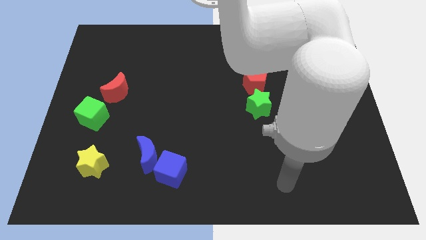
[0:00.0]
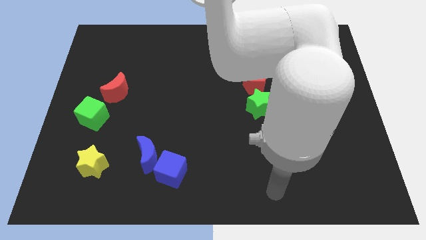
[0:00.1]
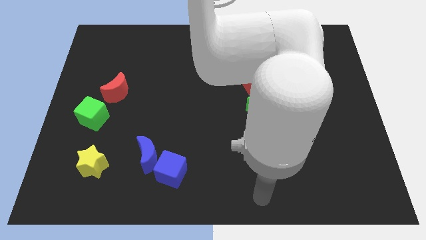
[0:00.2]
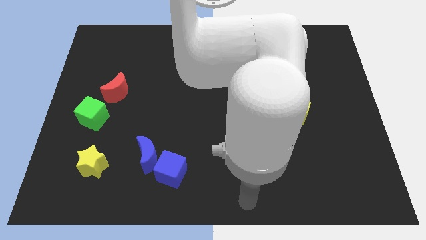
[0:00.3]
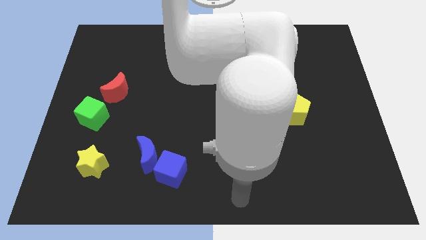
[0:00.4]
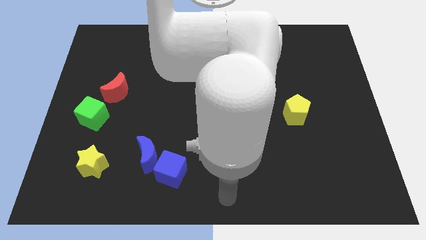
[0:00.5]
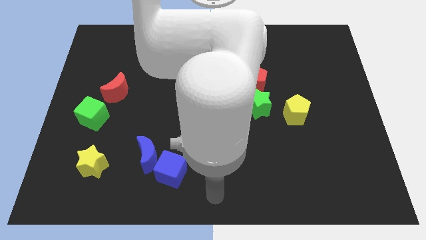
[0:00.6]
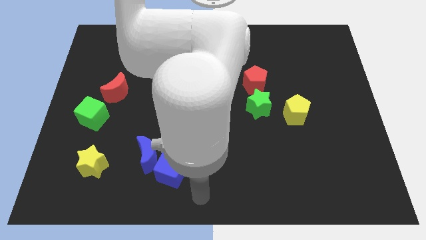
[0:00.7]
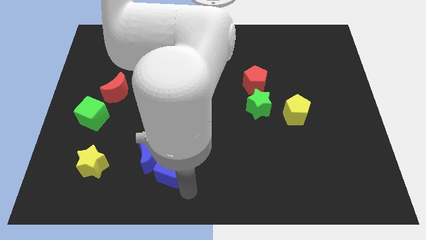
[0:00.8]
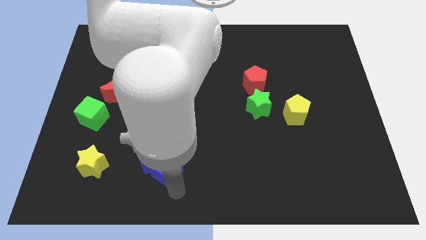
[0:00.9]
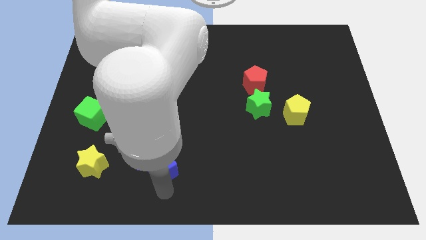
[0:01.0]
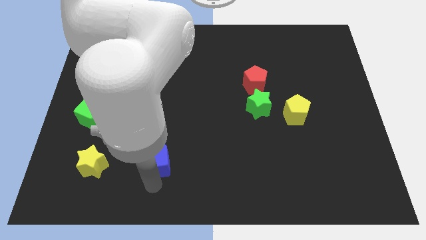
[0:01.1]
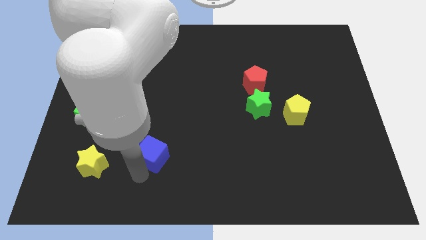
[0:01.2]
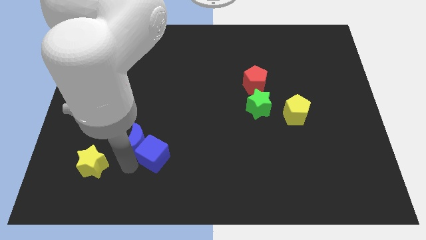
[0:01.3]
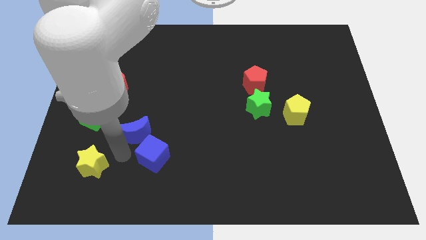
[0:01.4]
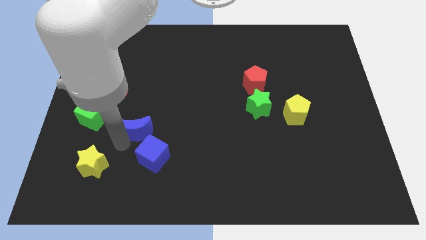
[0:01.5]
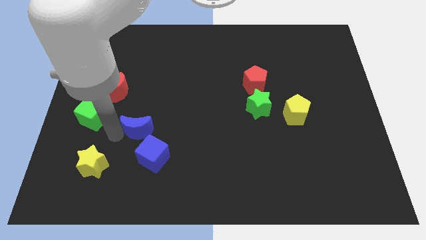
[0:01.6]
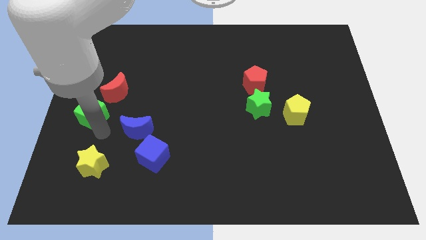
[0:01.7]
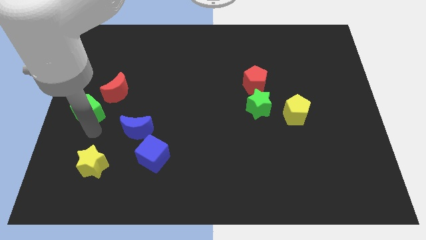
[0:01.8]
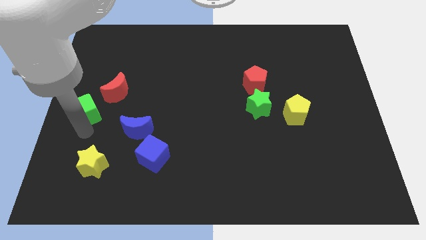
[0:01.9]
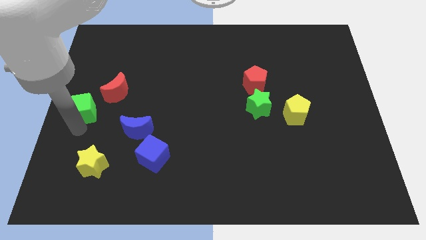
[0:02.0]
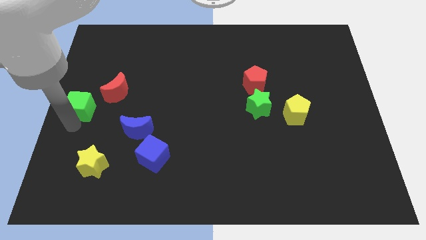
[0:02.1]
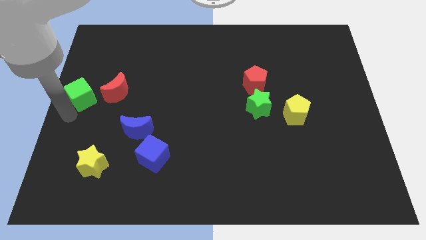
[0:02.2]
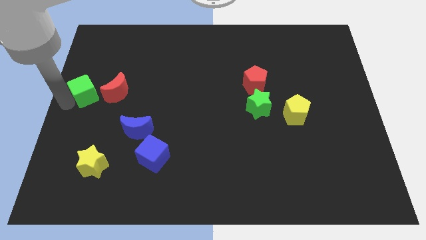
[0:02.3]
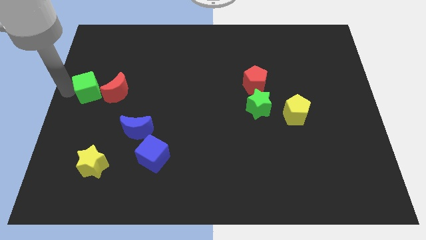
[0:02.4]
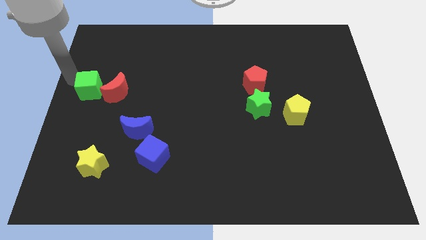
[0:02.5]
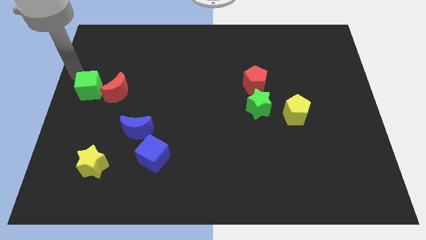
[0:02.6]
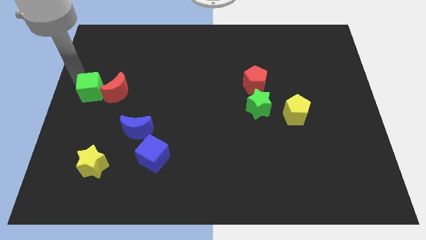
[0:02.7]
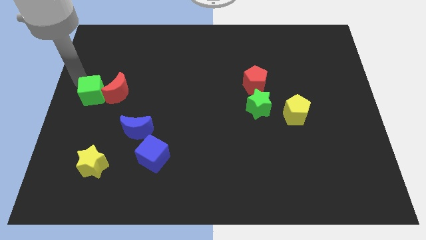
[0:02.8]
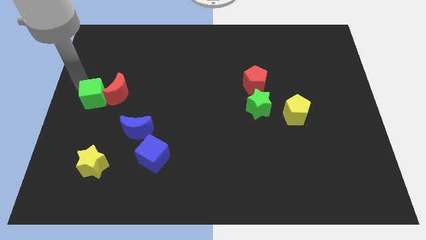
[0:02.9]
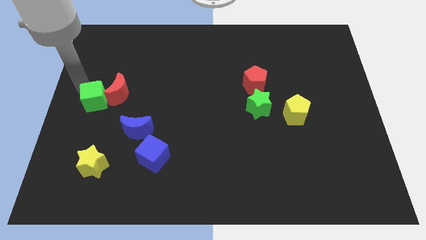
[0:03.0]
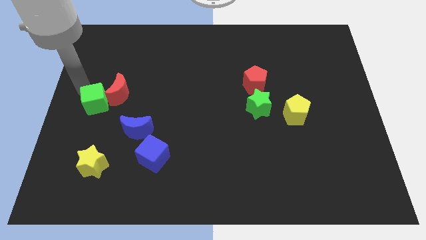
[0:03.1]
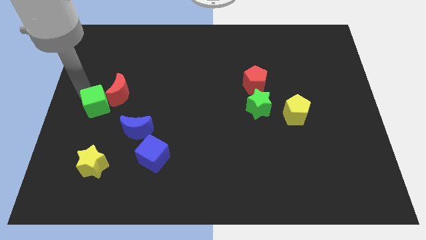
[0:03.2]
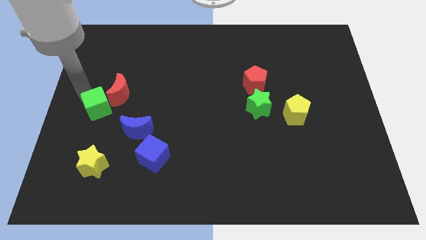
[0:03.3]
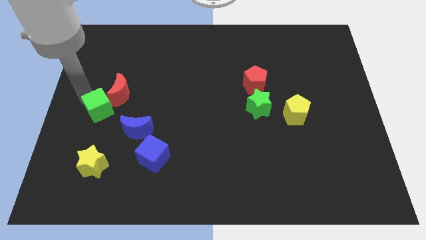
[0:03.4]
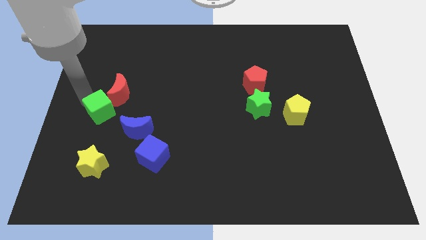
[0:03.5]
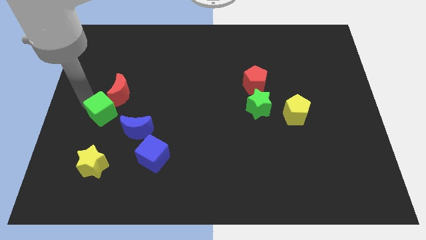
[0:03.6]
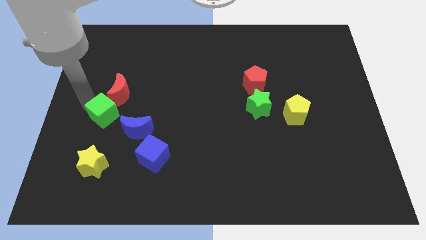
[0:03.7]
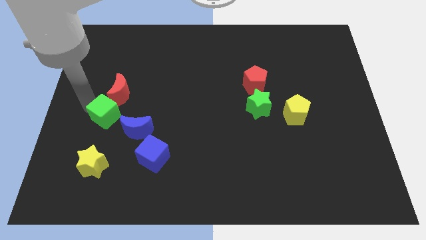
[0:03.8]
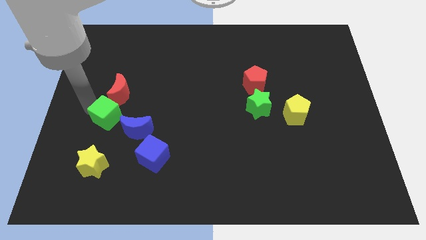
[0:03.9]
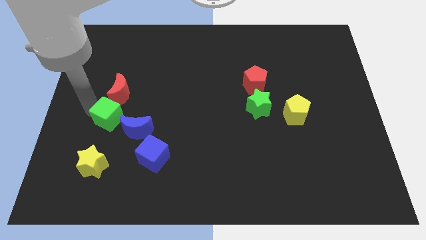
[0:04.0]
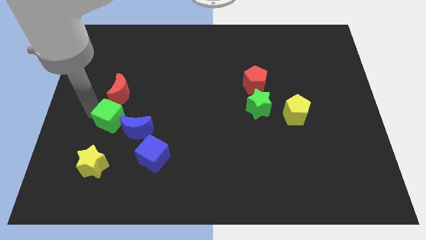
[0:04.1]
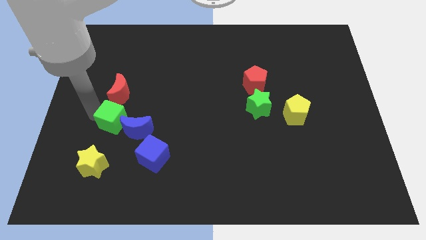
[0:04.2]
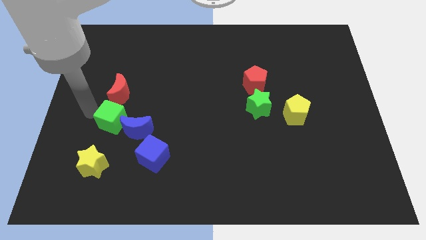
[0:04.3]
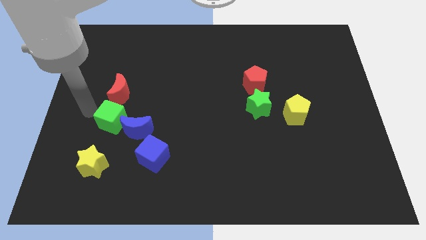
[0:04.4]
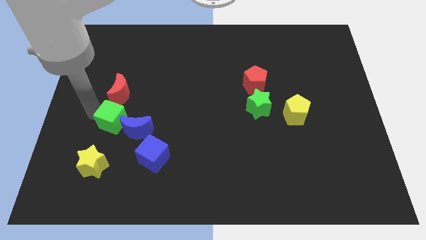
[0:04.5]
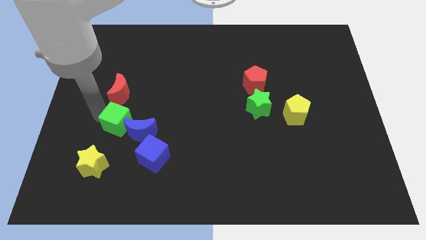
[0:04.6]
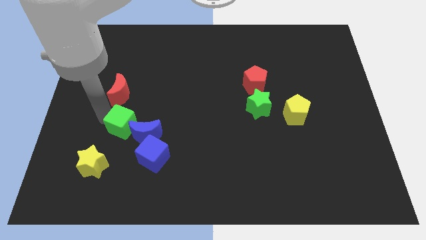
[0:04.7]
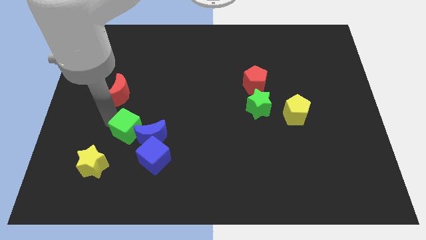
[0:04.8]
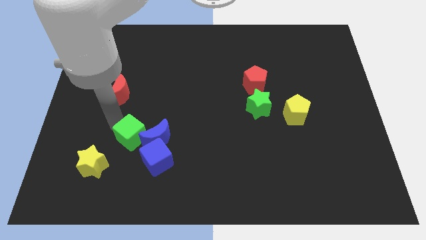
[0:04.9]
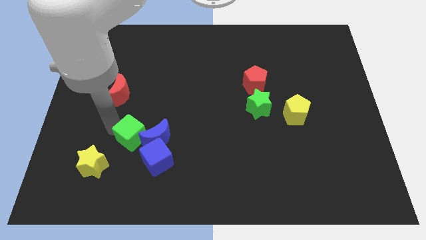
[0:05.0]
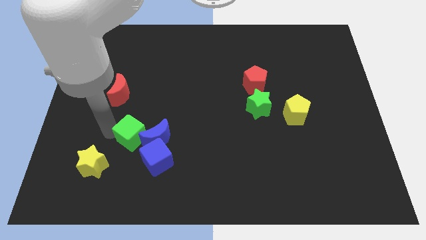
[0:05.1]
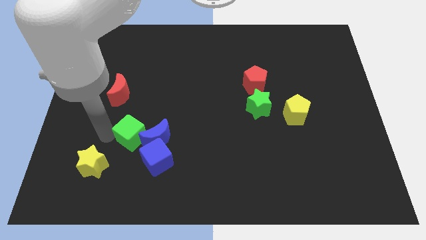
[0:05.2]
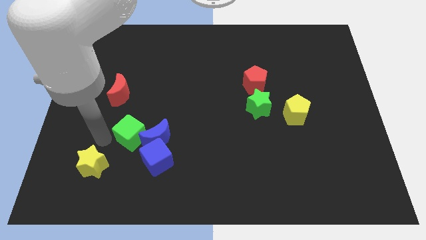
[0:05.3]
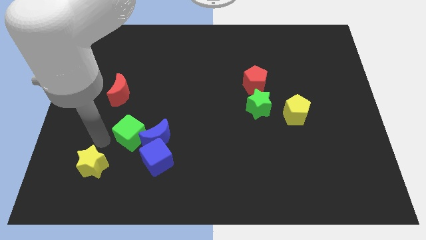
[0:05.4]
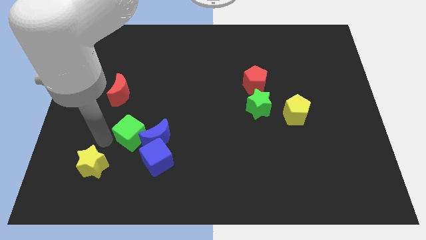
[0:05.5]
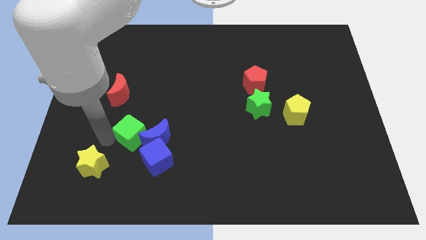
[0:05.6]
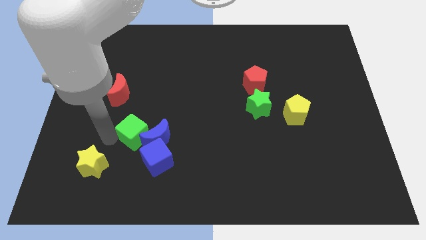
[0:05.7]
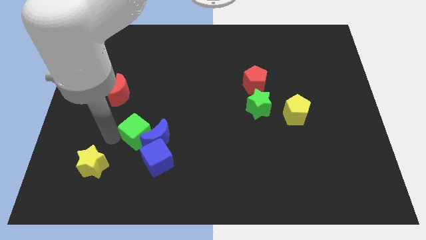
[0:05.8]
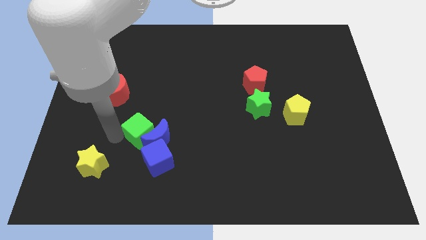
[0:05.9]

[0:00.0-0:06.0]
put the green cube to the top of the blue cube
